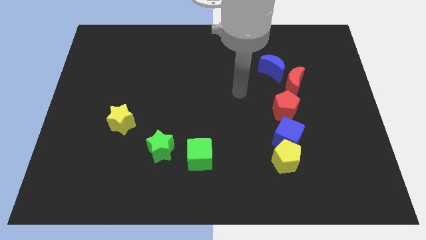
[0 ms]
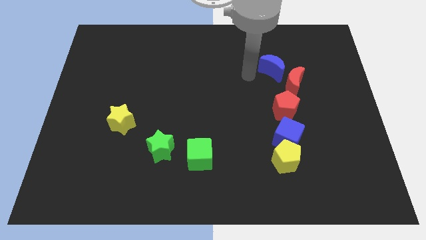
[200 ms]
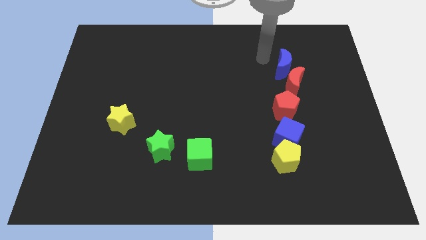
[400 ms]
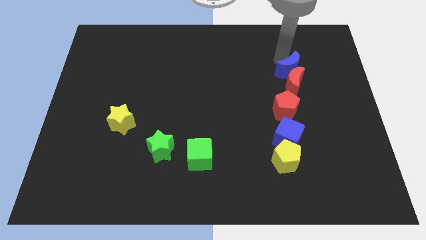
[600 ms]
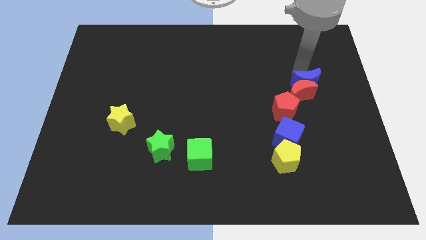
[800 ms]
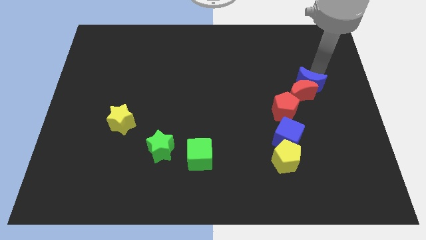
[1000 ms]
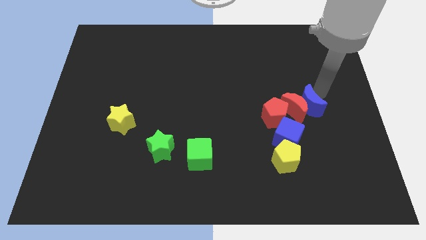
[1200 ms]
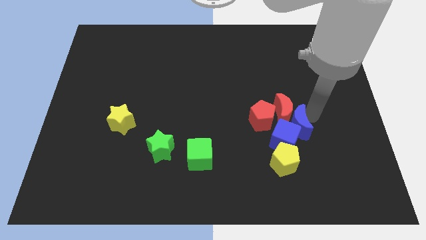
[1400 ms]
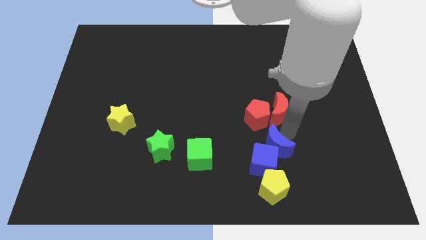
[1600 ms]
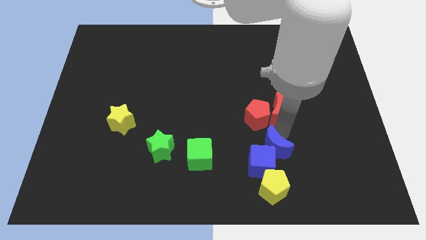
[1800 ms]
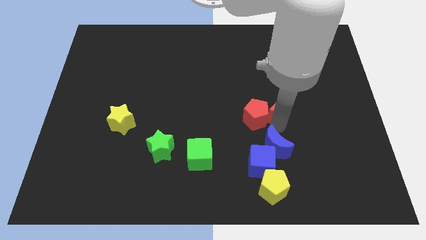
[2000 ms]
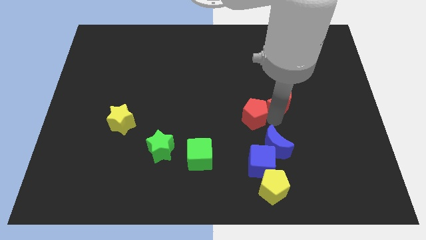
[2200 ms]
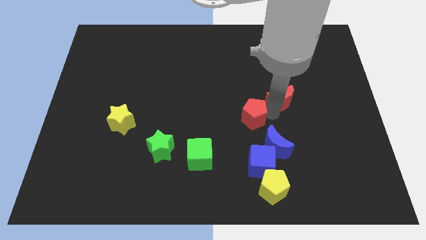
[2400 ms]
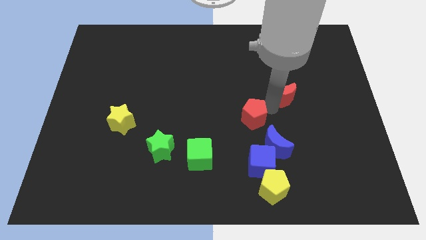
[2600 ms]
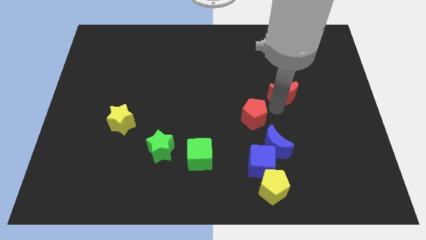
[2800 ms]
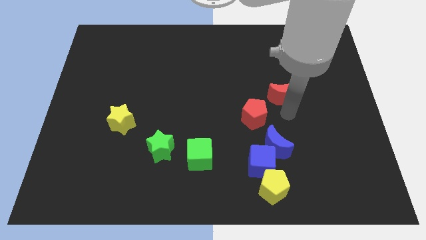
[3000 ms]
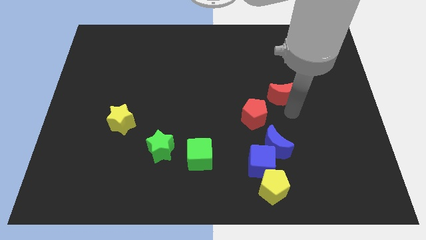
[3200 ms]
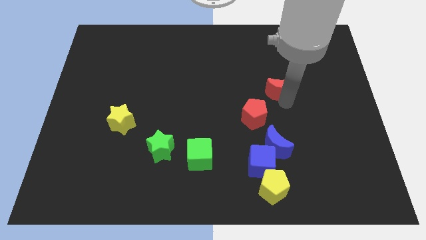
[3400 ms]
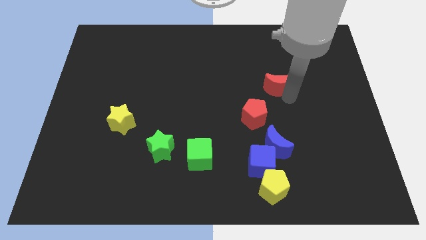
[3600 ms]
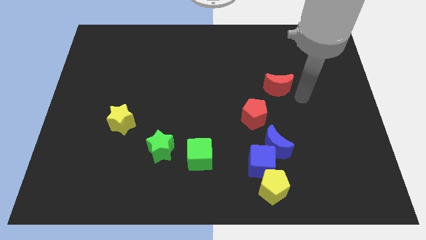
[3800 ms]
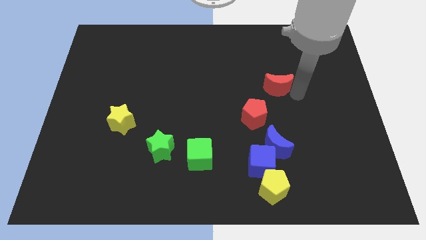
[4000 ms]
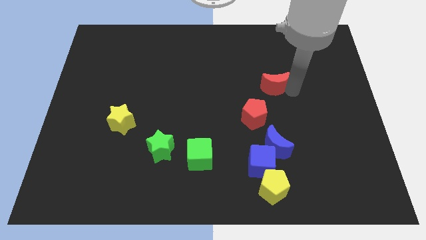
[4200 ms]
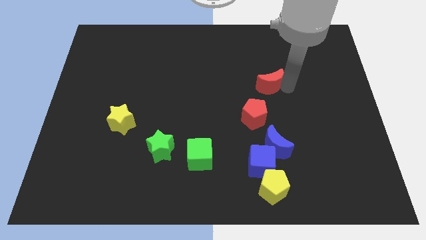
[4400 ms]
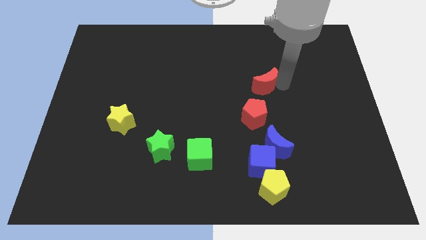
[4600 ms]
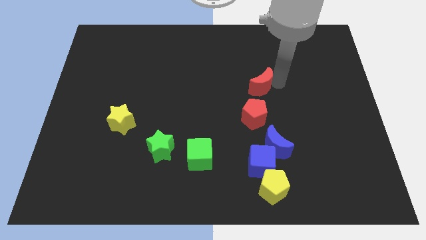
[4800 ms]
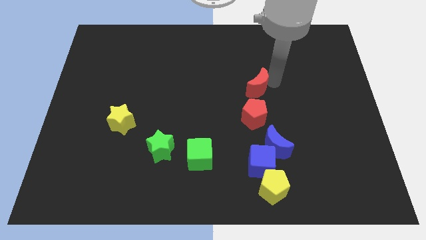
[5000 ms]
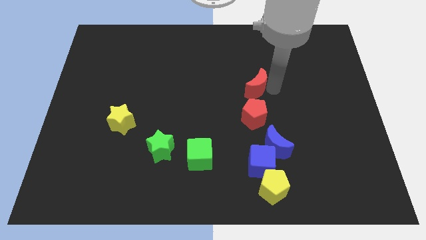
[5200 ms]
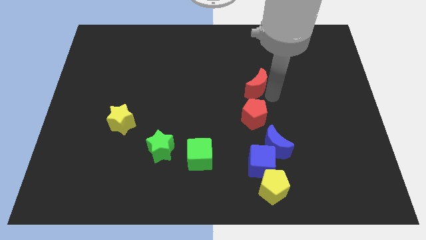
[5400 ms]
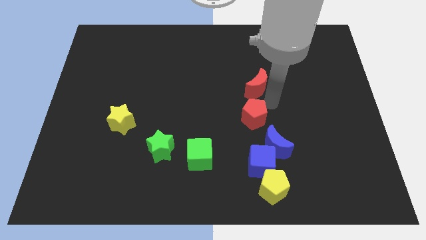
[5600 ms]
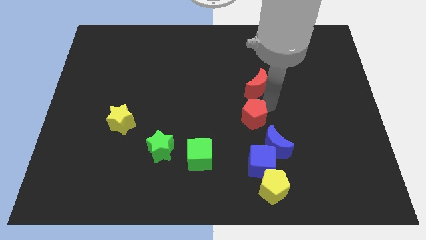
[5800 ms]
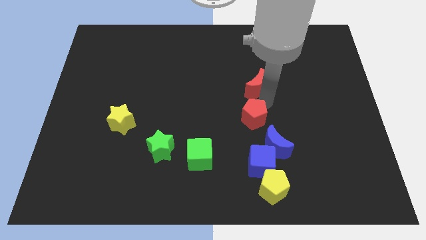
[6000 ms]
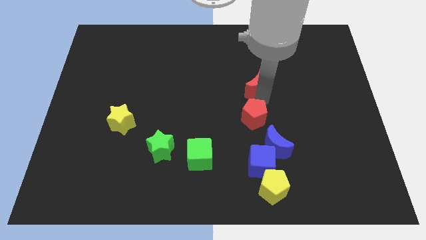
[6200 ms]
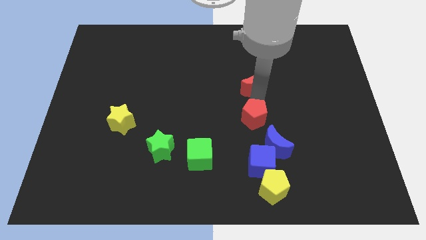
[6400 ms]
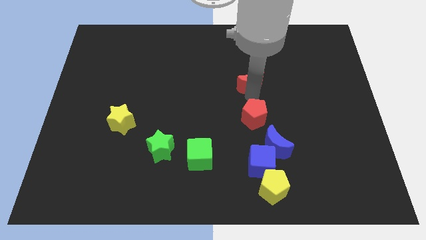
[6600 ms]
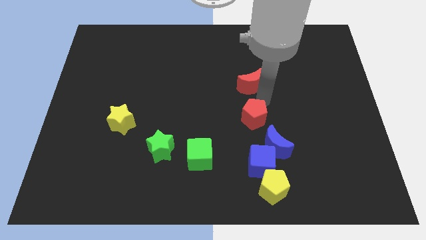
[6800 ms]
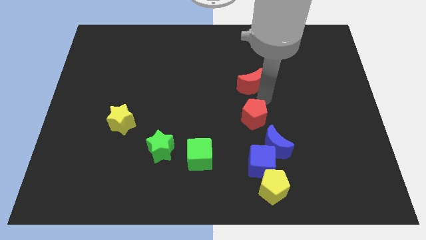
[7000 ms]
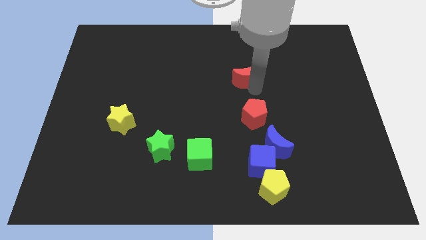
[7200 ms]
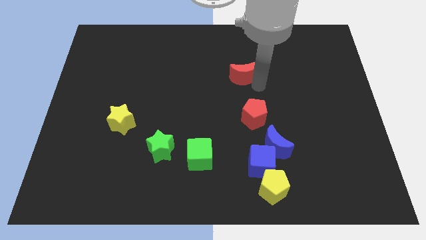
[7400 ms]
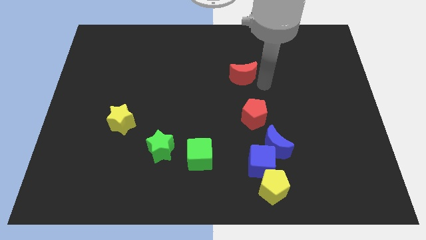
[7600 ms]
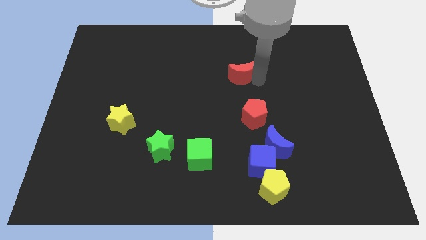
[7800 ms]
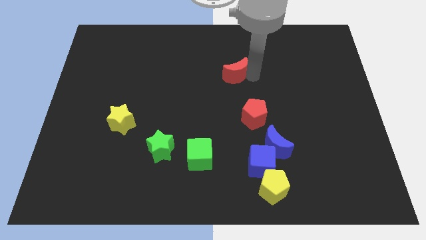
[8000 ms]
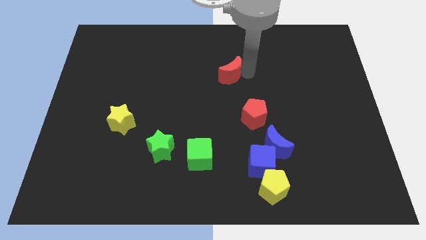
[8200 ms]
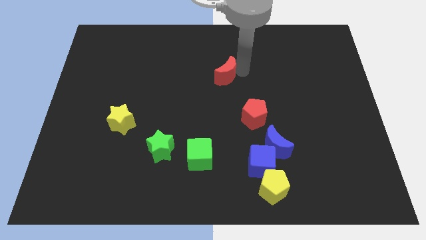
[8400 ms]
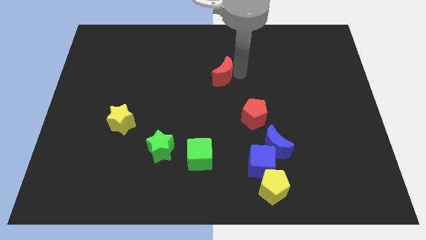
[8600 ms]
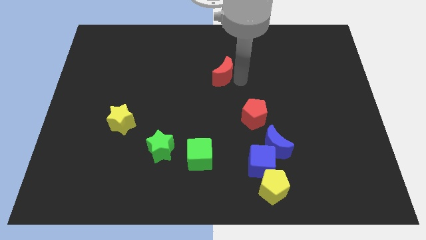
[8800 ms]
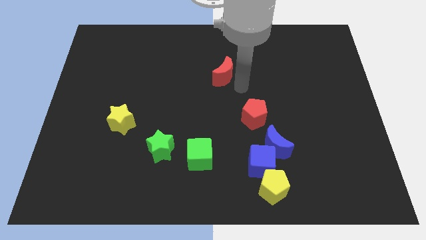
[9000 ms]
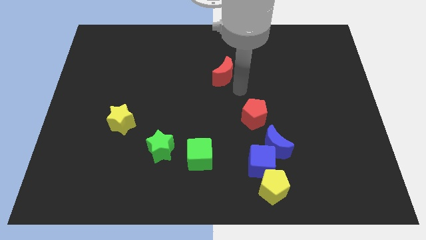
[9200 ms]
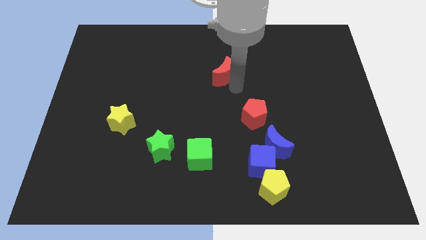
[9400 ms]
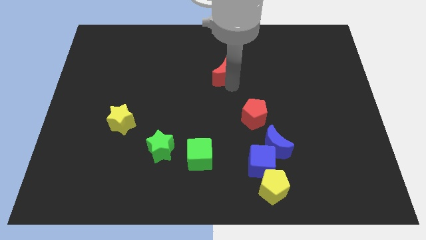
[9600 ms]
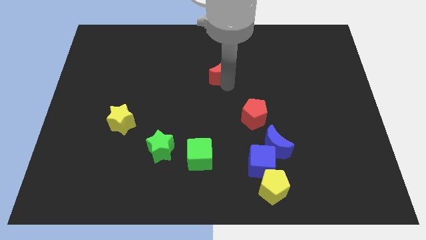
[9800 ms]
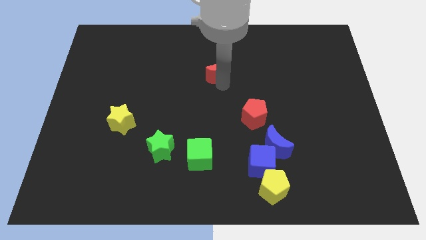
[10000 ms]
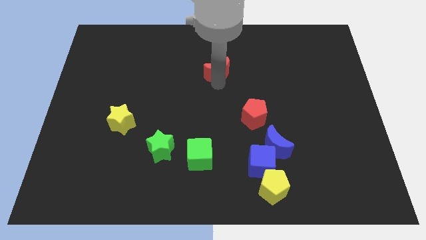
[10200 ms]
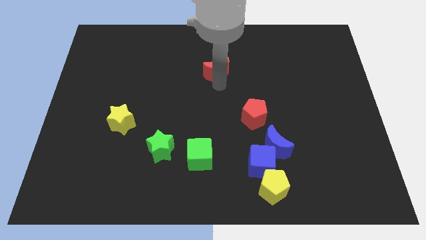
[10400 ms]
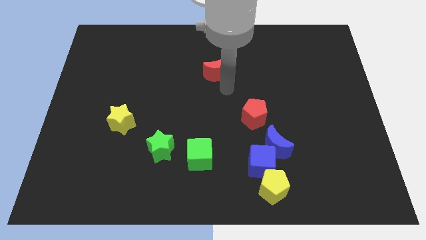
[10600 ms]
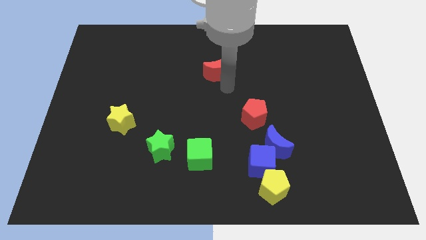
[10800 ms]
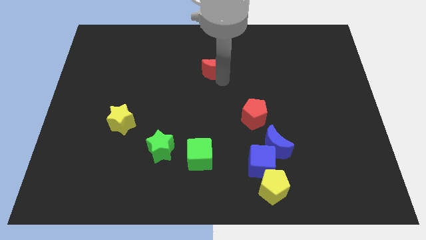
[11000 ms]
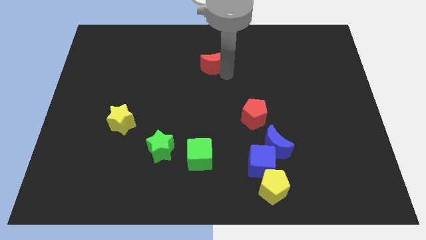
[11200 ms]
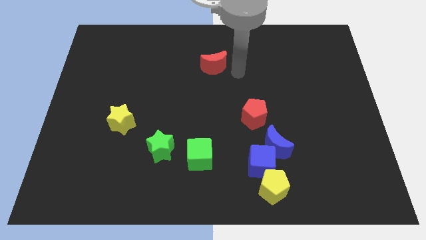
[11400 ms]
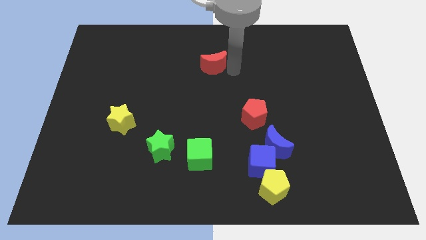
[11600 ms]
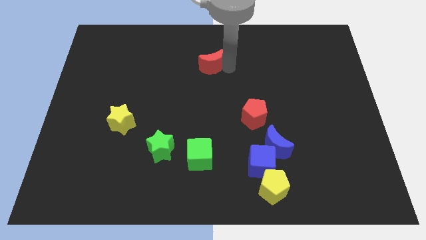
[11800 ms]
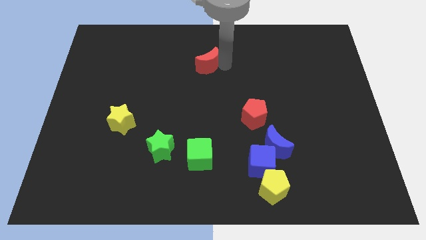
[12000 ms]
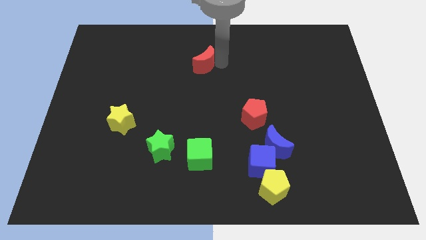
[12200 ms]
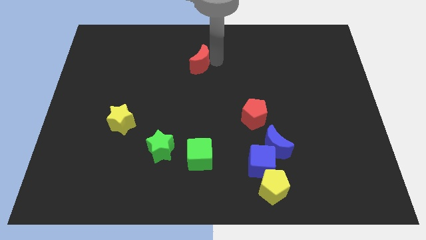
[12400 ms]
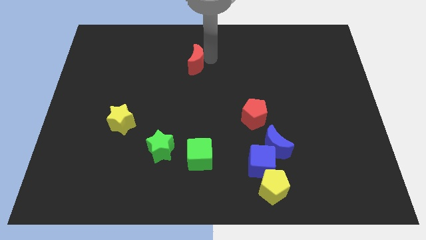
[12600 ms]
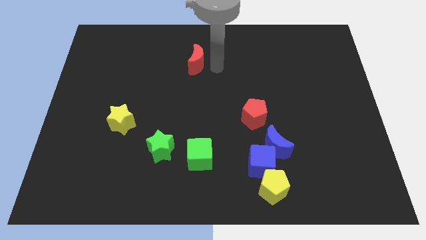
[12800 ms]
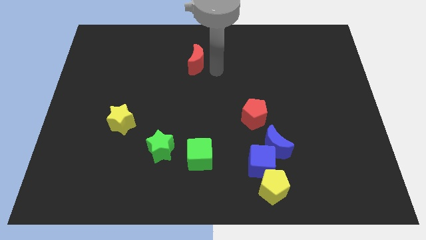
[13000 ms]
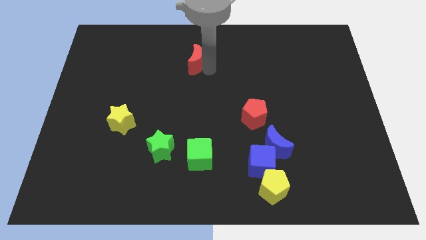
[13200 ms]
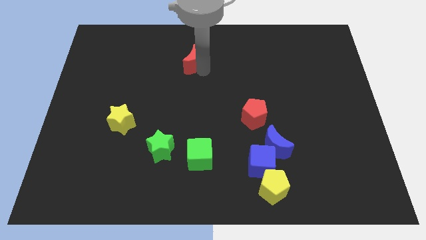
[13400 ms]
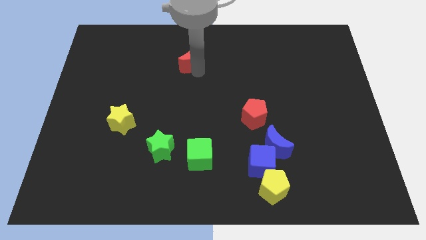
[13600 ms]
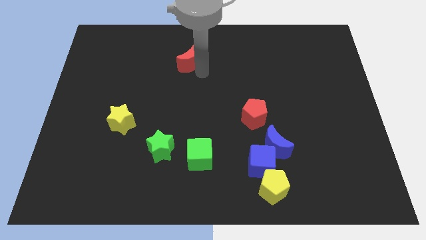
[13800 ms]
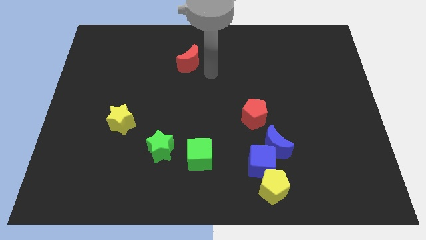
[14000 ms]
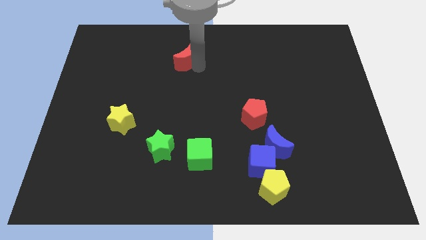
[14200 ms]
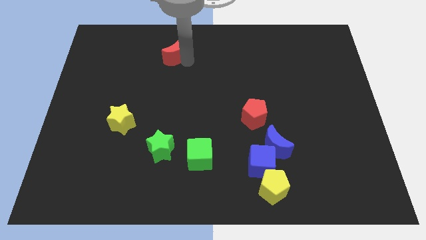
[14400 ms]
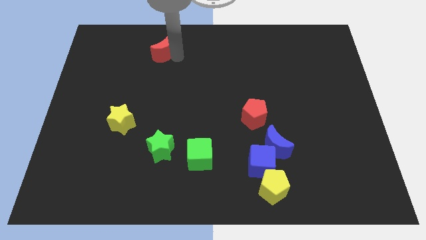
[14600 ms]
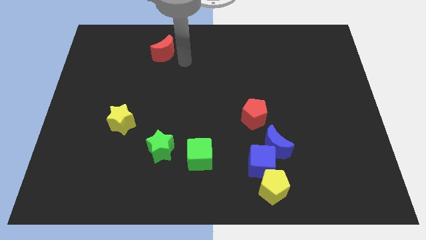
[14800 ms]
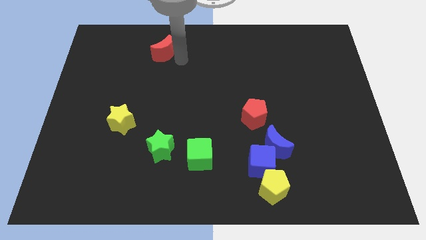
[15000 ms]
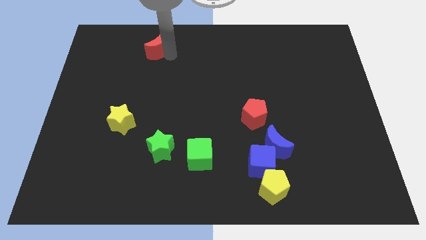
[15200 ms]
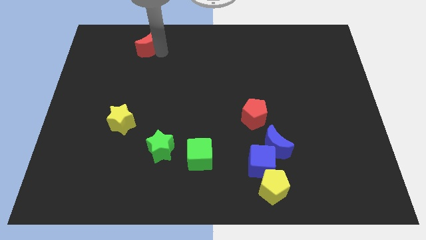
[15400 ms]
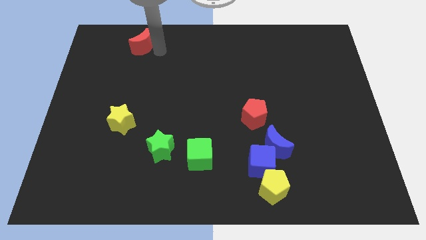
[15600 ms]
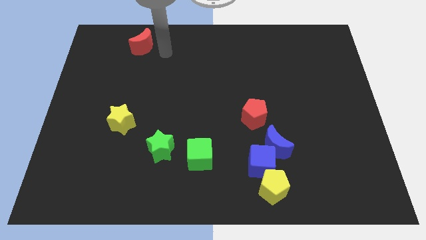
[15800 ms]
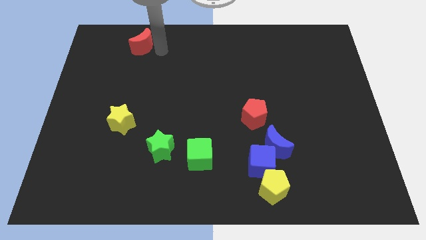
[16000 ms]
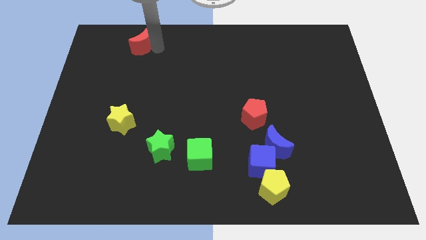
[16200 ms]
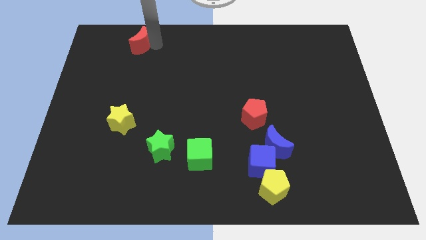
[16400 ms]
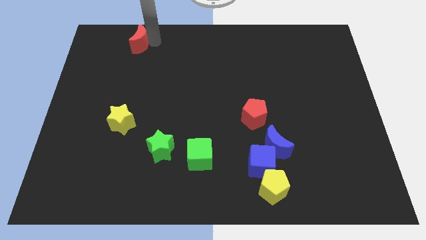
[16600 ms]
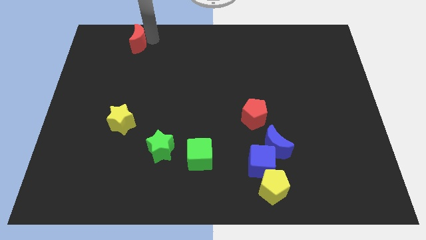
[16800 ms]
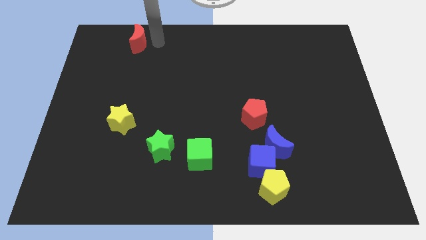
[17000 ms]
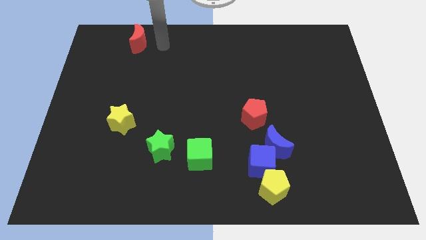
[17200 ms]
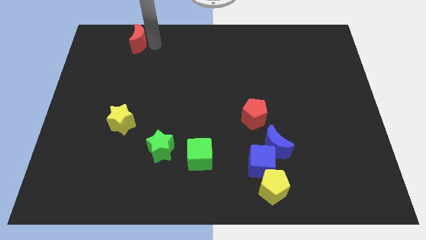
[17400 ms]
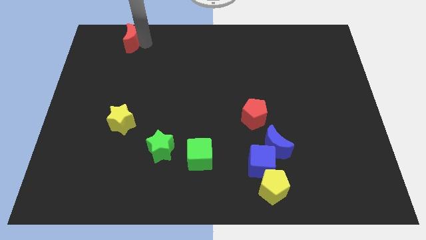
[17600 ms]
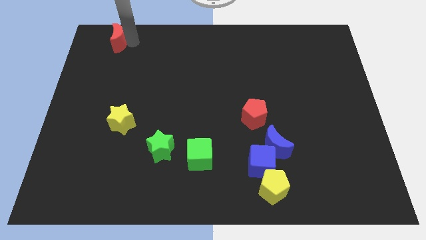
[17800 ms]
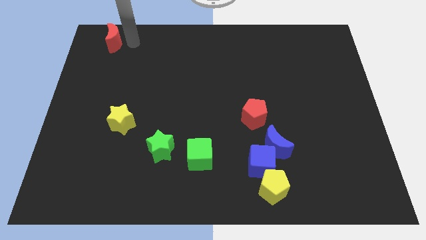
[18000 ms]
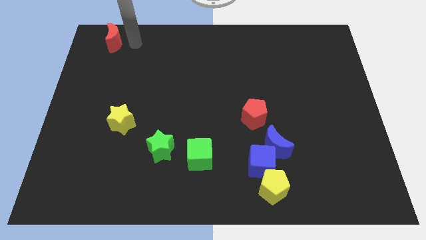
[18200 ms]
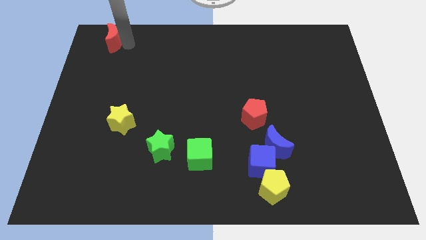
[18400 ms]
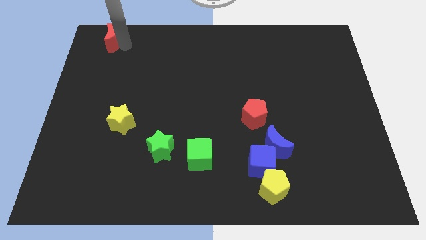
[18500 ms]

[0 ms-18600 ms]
move the red moon to the upper left corner
